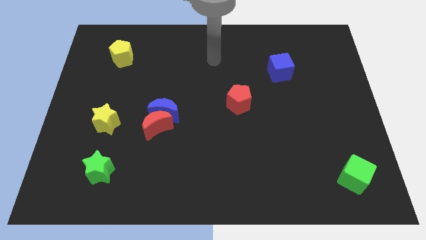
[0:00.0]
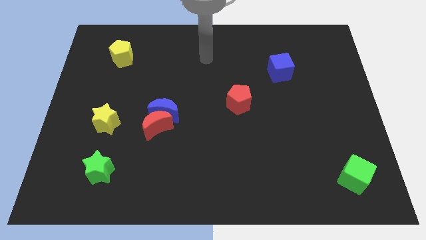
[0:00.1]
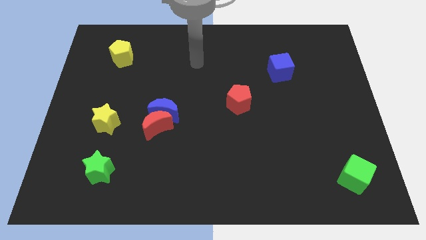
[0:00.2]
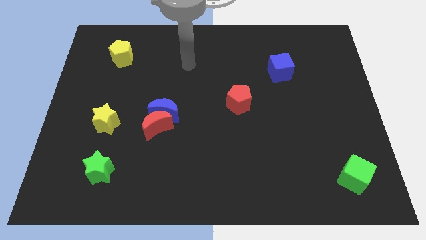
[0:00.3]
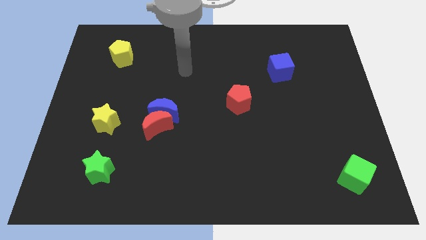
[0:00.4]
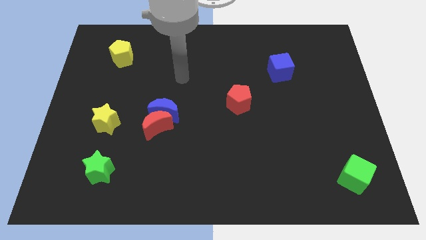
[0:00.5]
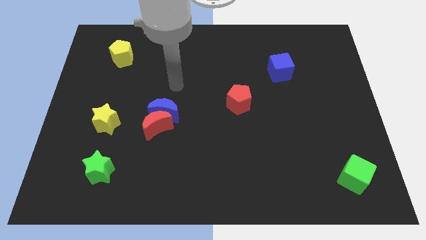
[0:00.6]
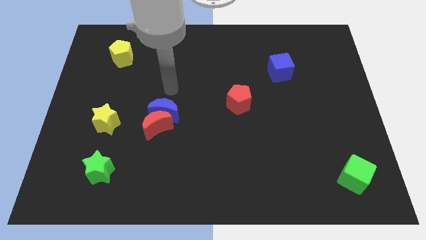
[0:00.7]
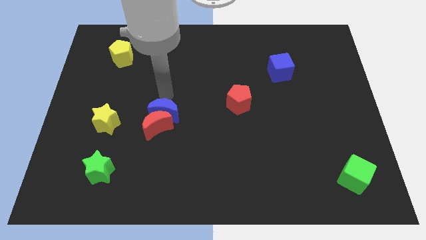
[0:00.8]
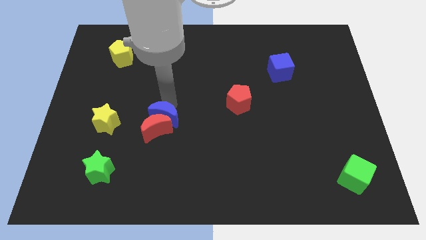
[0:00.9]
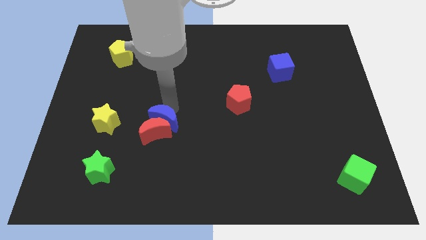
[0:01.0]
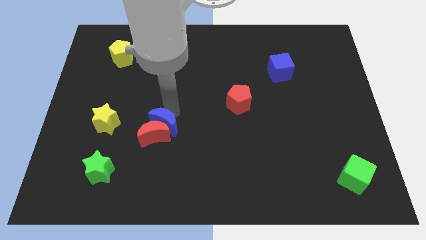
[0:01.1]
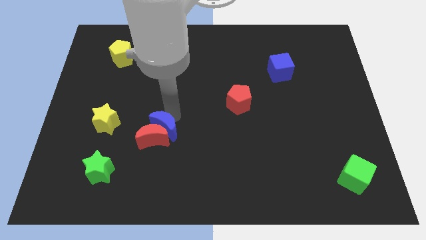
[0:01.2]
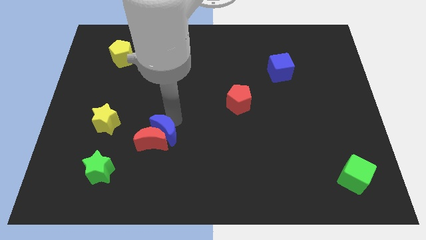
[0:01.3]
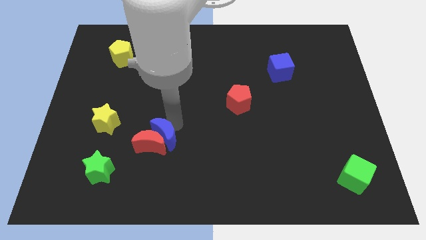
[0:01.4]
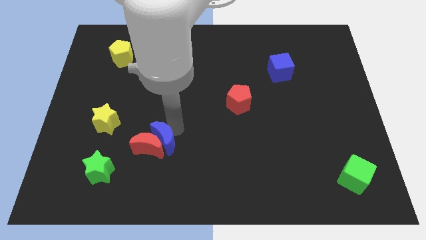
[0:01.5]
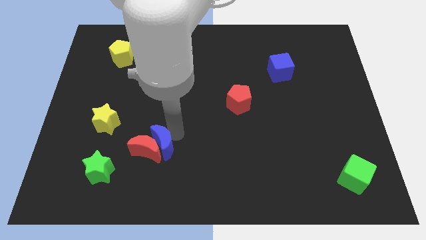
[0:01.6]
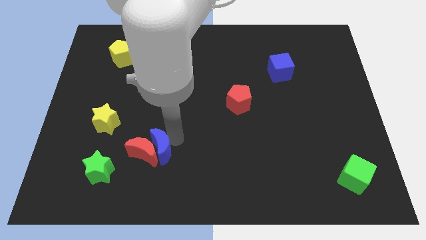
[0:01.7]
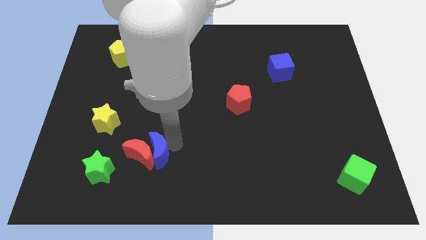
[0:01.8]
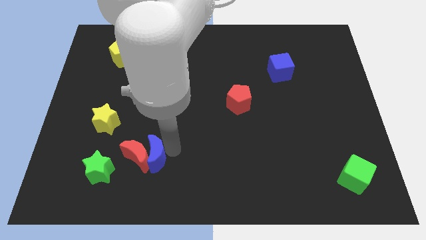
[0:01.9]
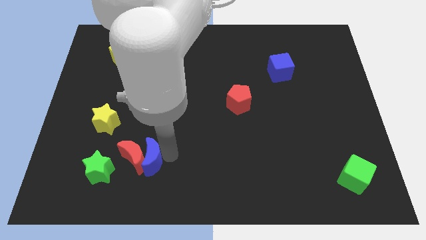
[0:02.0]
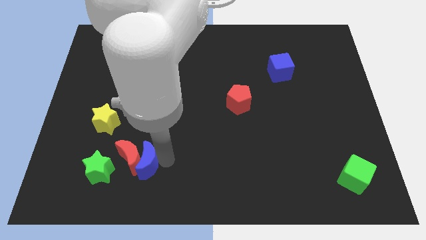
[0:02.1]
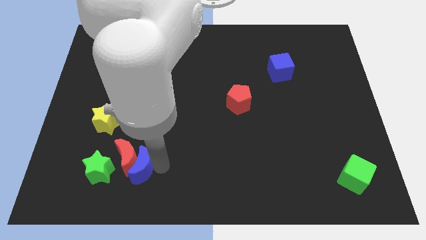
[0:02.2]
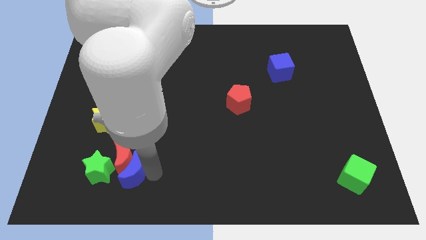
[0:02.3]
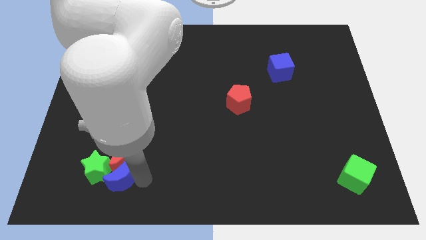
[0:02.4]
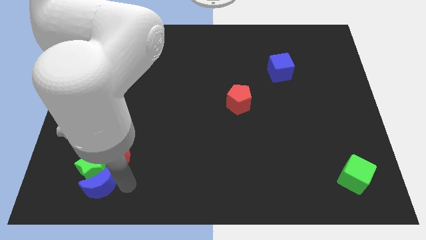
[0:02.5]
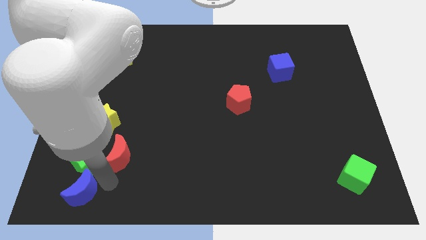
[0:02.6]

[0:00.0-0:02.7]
move the red moon away from the blue moon

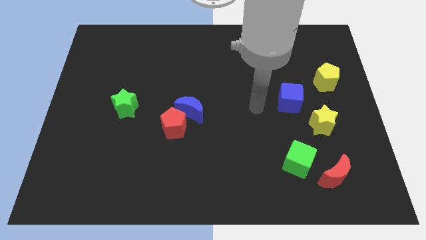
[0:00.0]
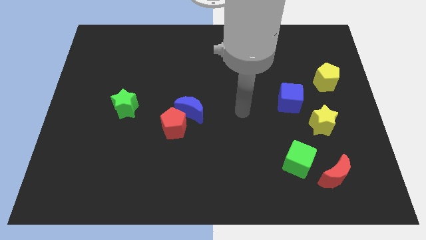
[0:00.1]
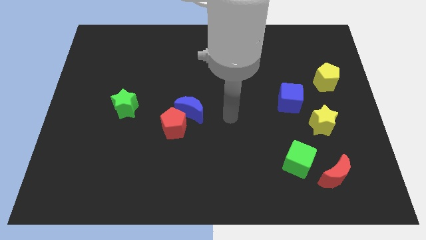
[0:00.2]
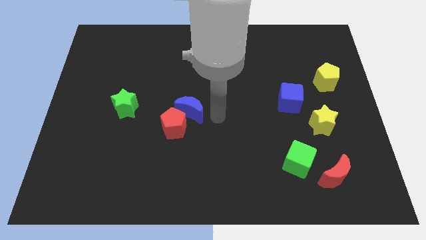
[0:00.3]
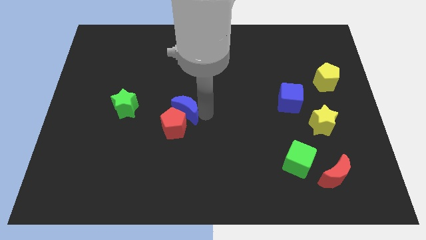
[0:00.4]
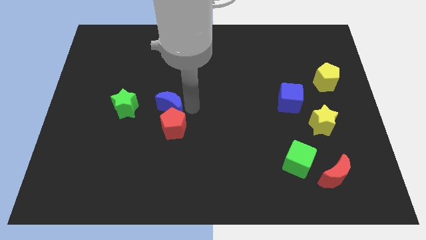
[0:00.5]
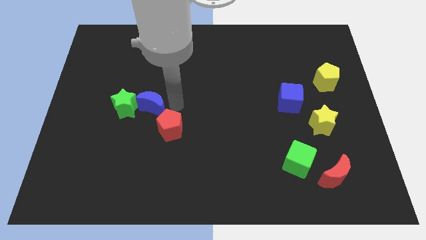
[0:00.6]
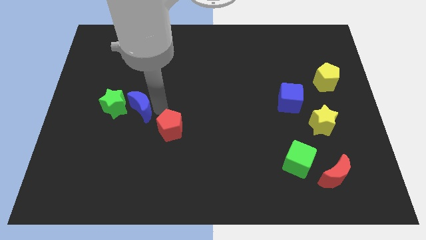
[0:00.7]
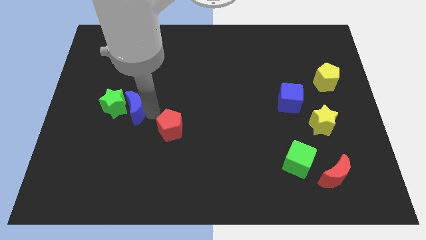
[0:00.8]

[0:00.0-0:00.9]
move the red pentagon away from the blue moon

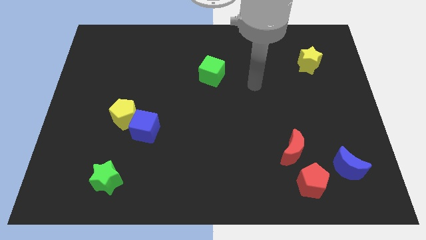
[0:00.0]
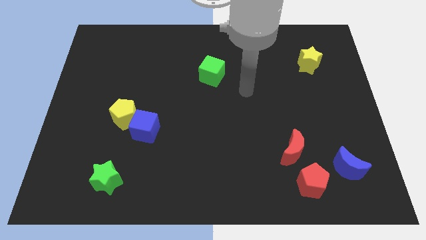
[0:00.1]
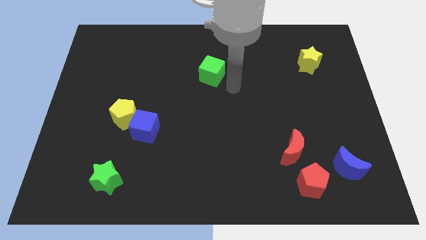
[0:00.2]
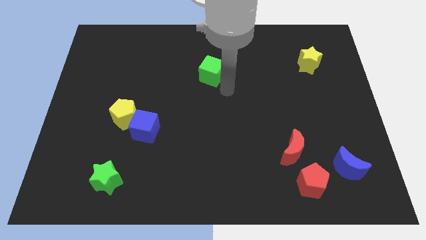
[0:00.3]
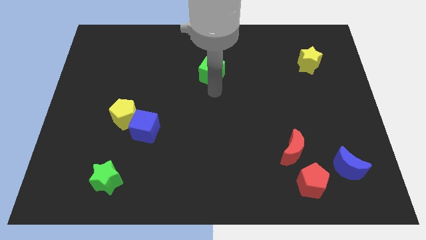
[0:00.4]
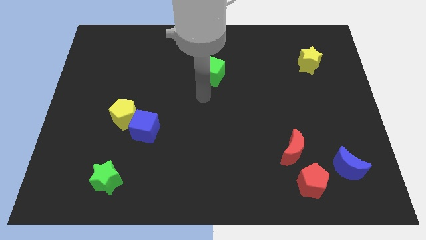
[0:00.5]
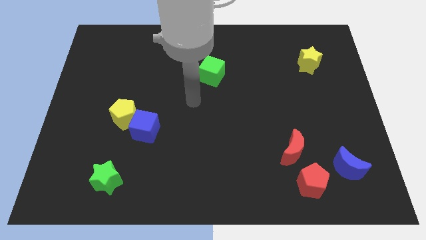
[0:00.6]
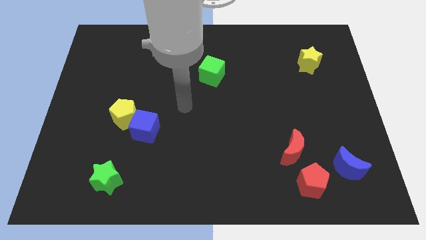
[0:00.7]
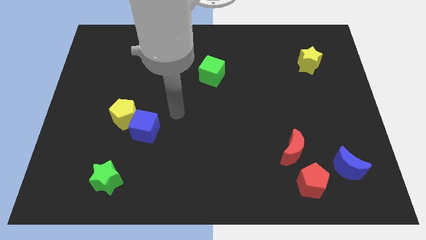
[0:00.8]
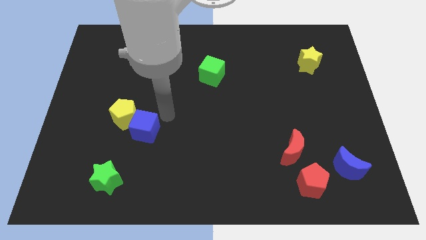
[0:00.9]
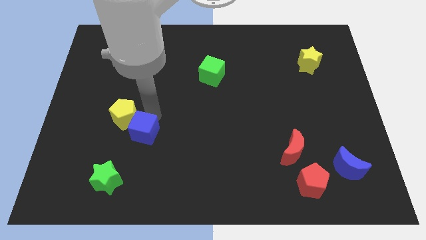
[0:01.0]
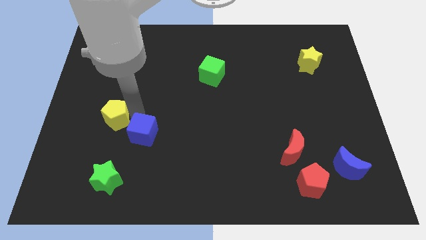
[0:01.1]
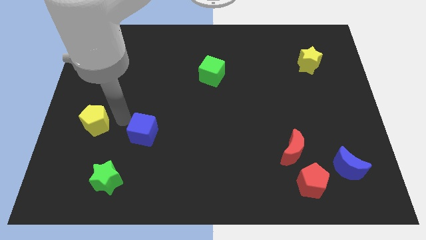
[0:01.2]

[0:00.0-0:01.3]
separate the blue cube from the yellow pentagon

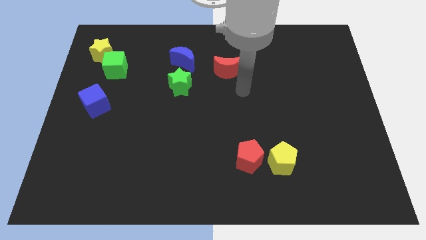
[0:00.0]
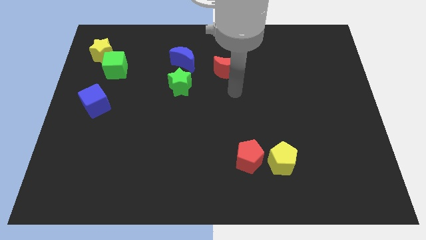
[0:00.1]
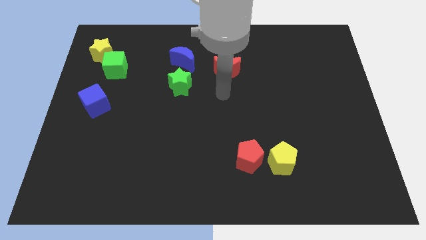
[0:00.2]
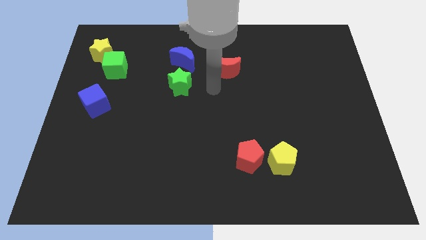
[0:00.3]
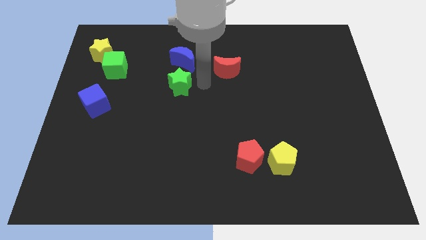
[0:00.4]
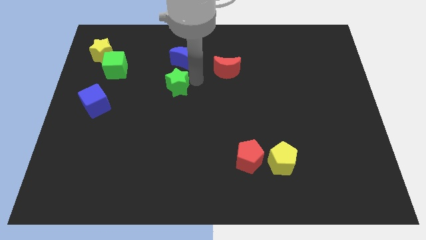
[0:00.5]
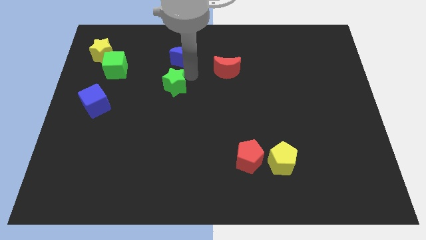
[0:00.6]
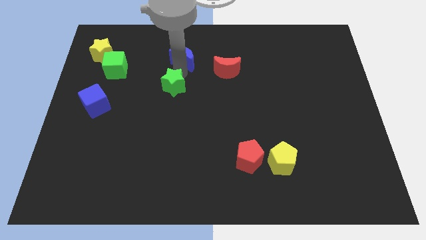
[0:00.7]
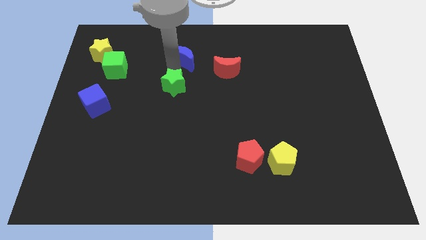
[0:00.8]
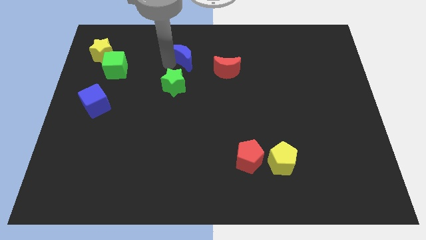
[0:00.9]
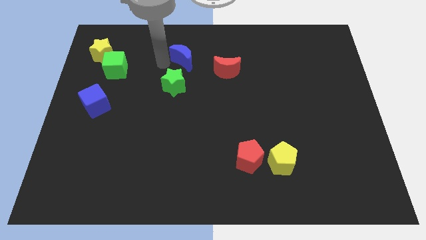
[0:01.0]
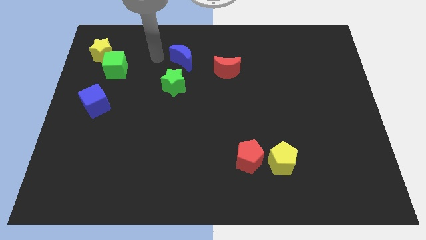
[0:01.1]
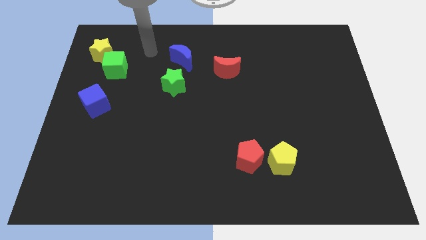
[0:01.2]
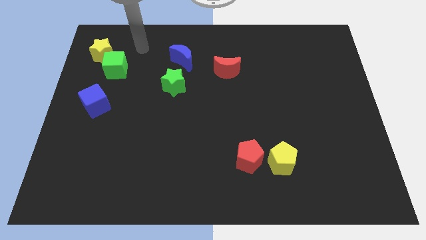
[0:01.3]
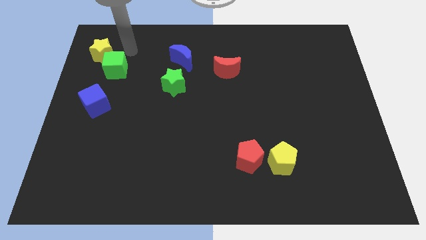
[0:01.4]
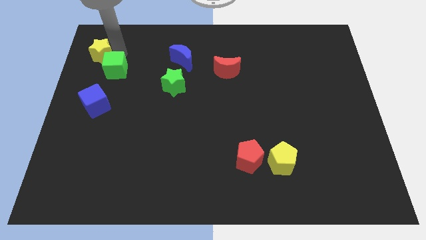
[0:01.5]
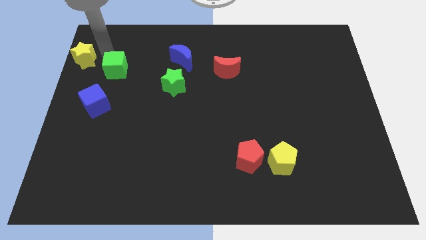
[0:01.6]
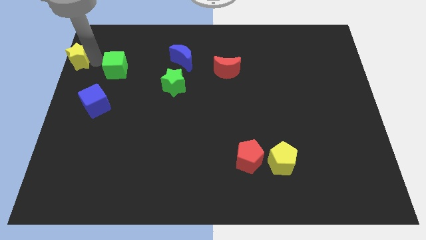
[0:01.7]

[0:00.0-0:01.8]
move the green cube away from the yellow star

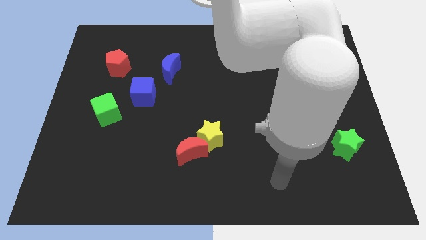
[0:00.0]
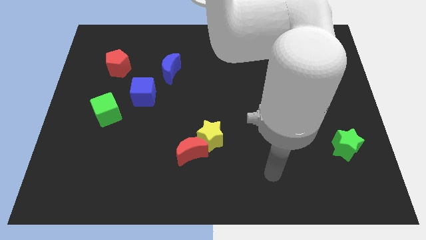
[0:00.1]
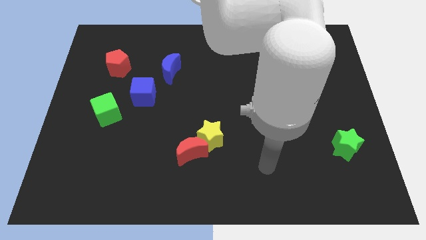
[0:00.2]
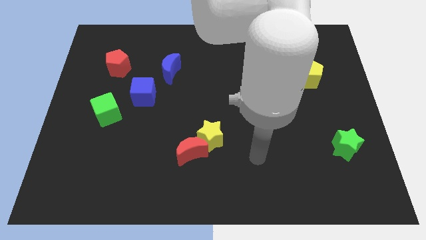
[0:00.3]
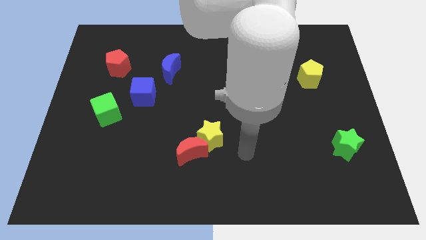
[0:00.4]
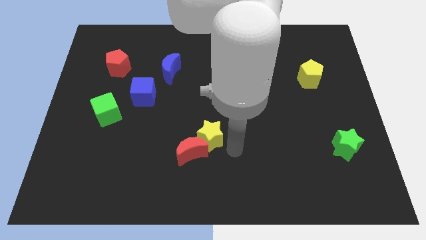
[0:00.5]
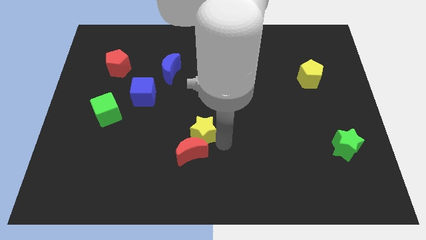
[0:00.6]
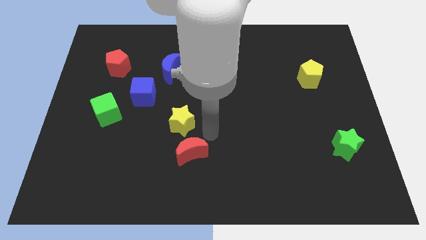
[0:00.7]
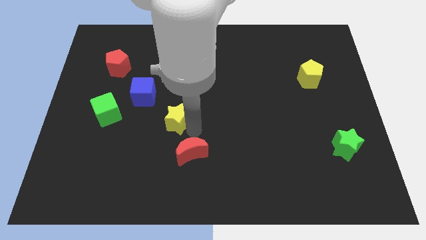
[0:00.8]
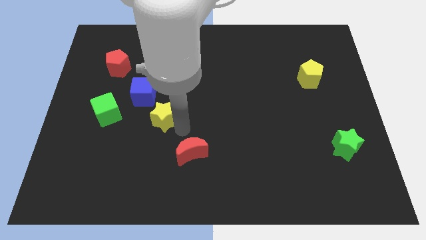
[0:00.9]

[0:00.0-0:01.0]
separate the red moon from the yellow star

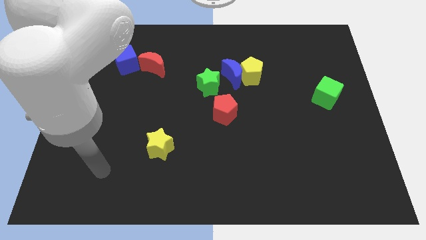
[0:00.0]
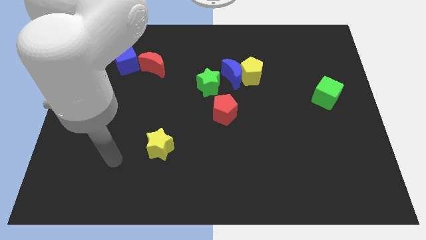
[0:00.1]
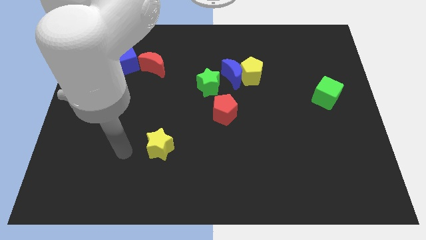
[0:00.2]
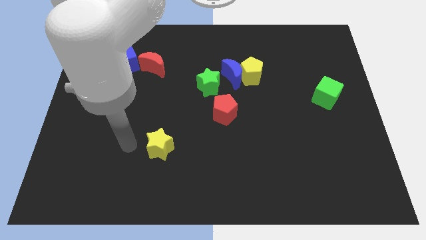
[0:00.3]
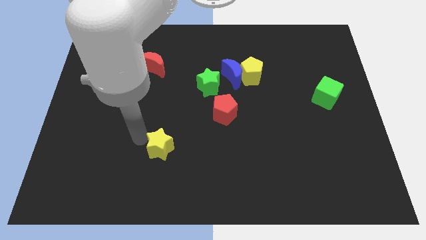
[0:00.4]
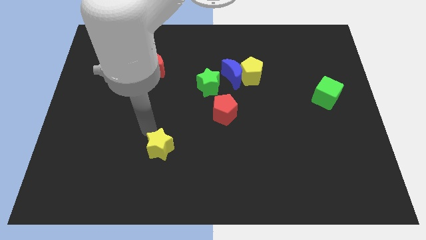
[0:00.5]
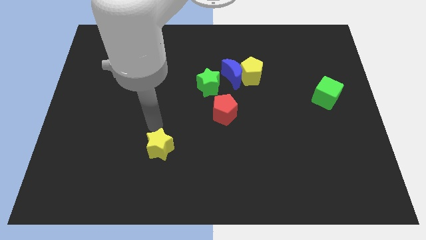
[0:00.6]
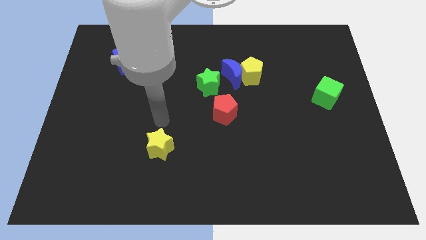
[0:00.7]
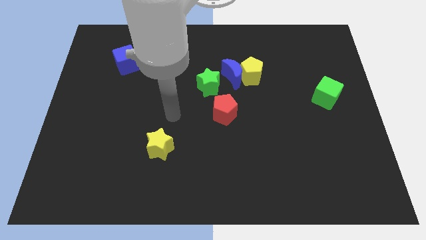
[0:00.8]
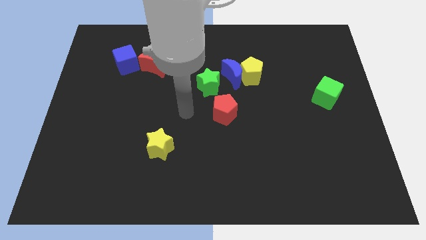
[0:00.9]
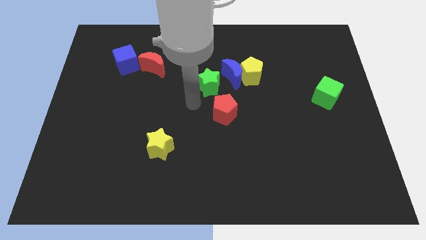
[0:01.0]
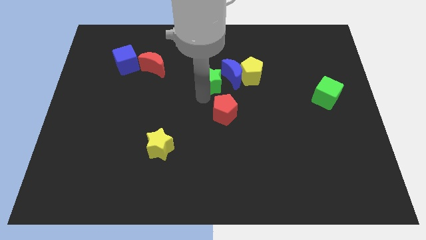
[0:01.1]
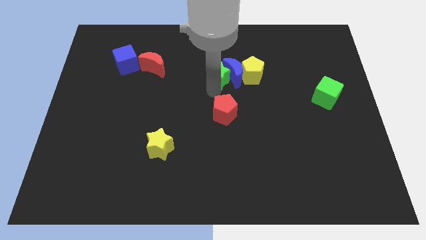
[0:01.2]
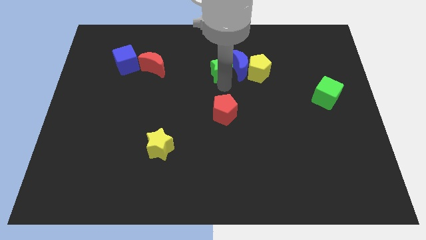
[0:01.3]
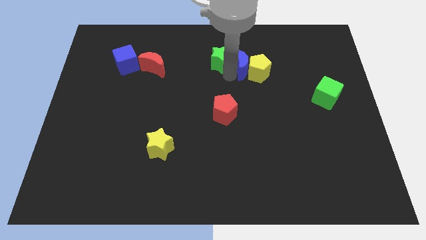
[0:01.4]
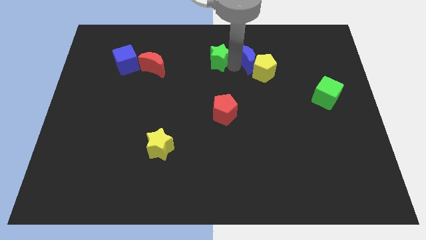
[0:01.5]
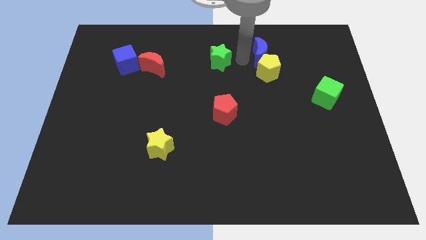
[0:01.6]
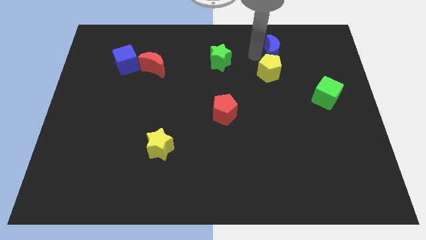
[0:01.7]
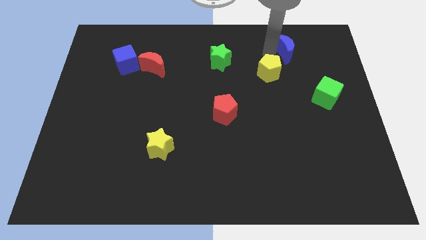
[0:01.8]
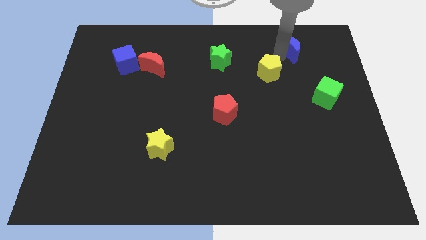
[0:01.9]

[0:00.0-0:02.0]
separate the yellow pentagon from the blue moon
